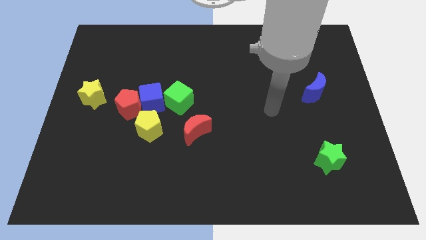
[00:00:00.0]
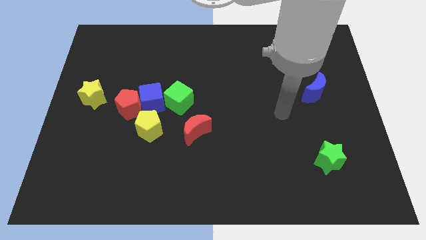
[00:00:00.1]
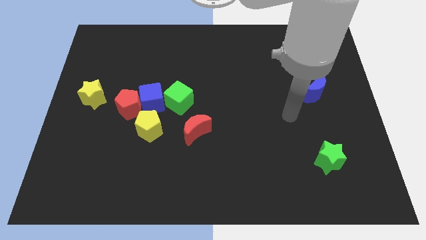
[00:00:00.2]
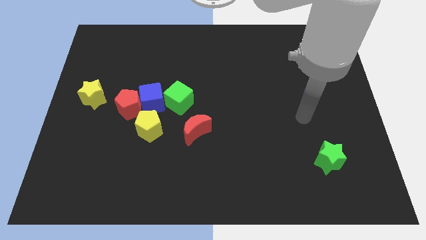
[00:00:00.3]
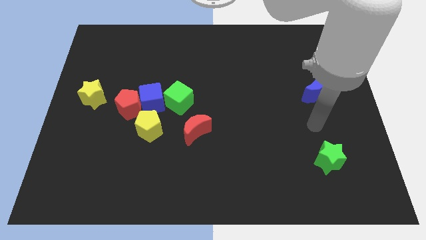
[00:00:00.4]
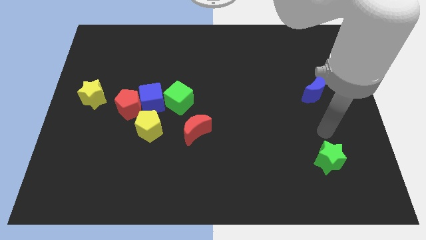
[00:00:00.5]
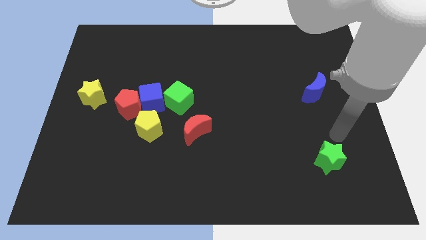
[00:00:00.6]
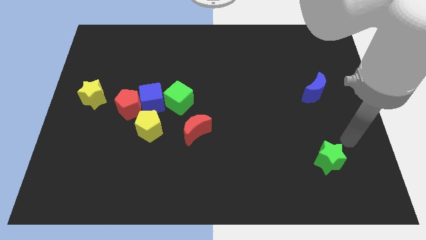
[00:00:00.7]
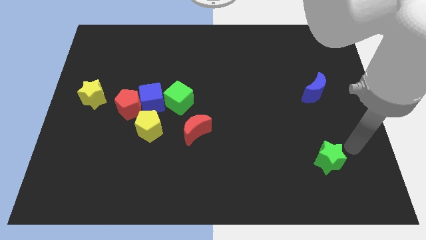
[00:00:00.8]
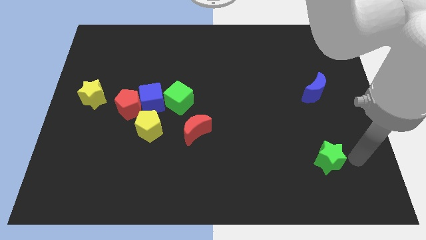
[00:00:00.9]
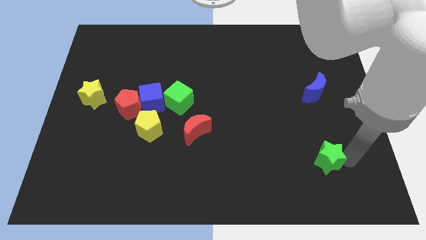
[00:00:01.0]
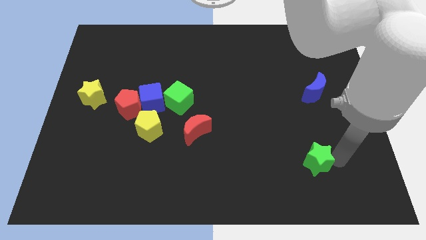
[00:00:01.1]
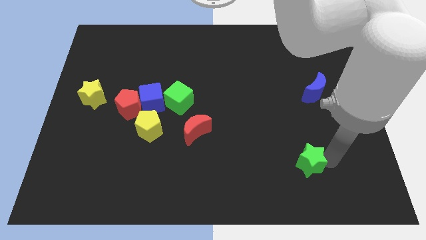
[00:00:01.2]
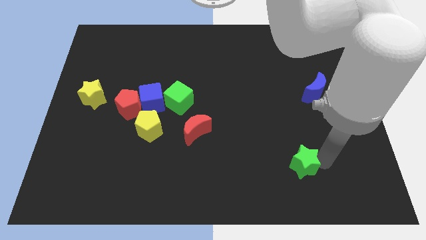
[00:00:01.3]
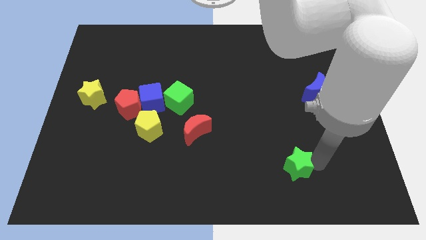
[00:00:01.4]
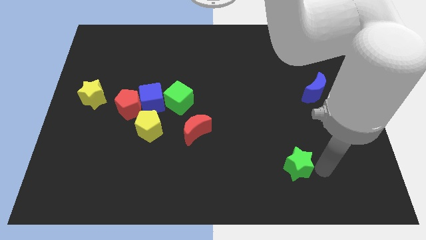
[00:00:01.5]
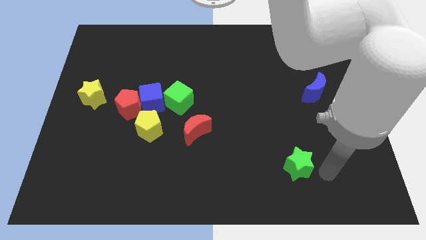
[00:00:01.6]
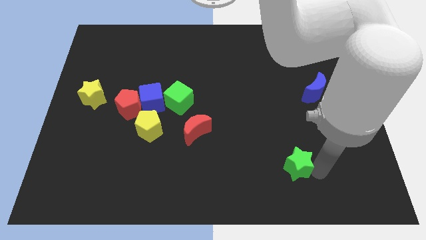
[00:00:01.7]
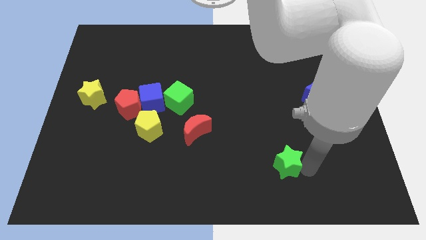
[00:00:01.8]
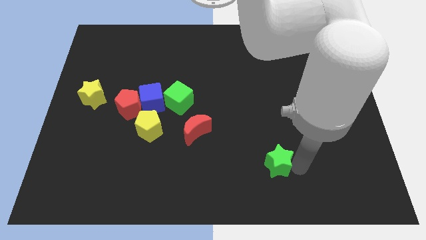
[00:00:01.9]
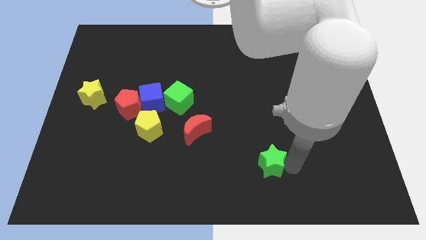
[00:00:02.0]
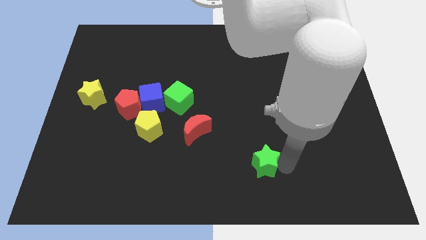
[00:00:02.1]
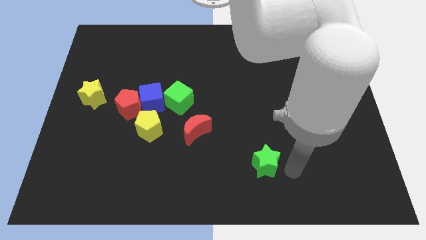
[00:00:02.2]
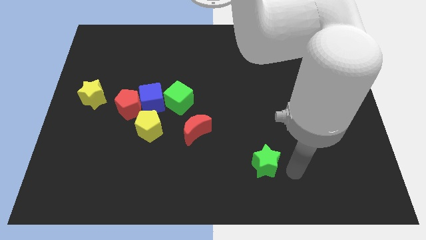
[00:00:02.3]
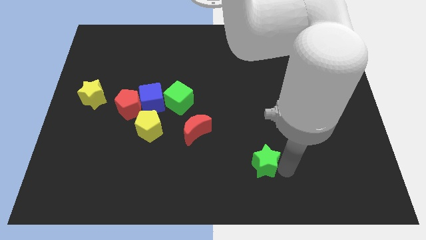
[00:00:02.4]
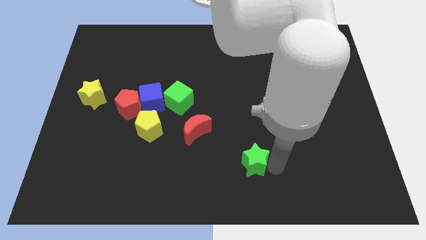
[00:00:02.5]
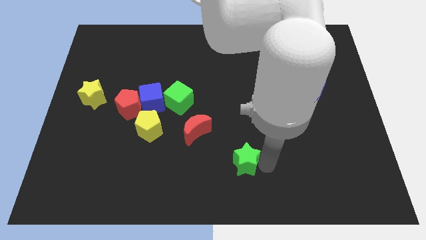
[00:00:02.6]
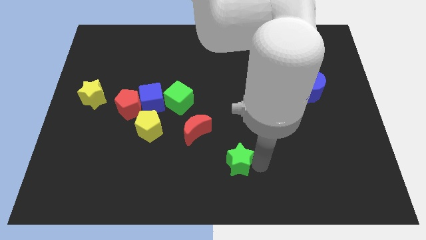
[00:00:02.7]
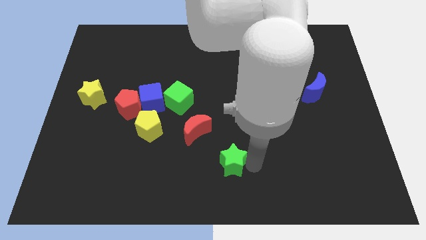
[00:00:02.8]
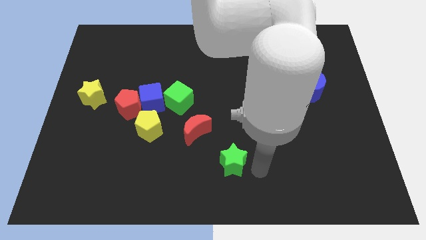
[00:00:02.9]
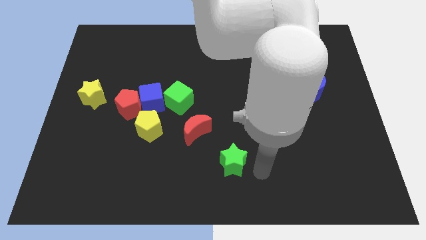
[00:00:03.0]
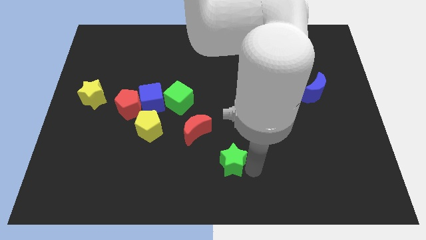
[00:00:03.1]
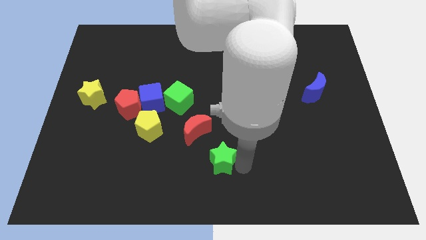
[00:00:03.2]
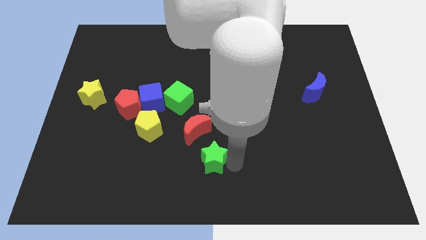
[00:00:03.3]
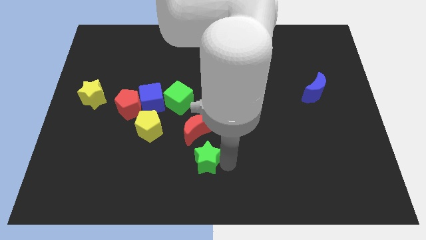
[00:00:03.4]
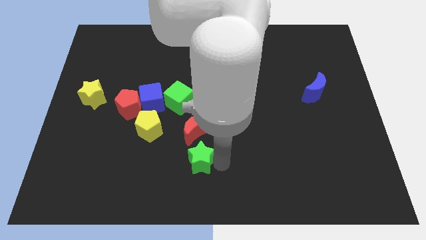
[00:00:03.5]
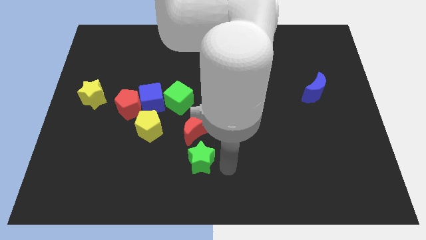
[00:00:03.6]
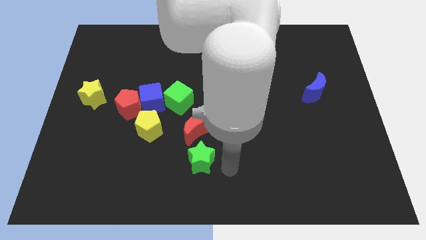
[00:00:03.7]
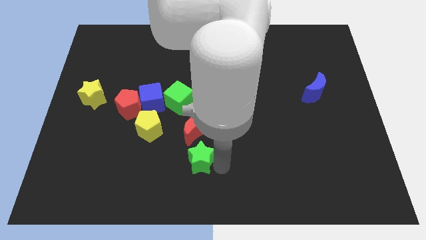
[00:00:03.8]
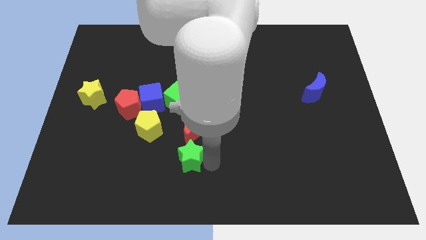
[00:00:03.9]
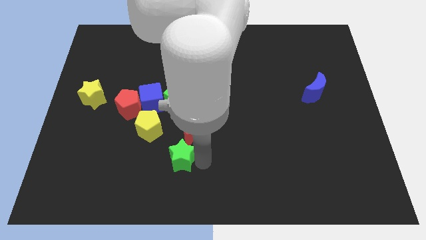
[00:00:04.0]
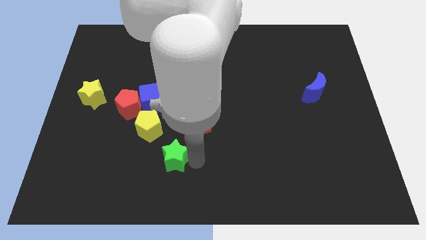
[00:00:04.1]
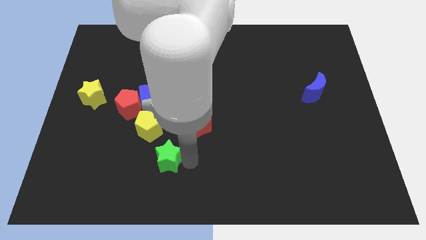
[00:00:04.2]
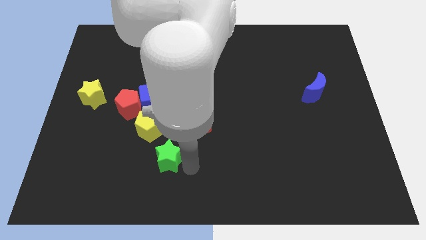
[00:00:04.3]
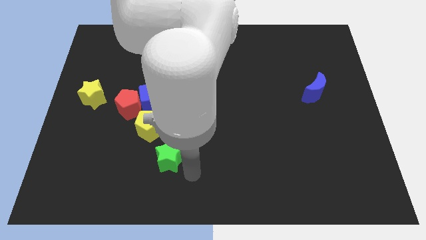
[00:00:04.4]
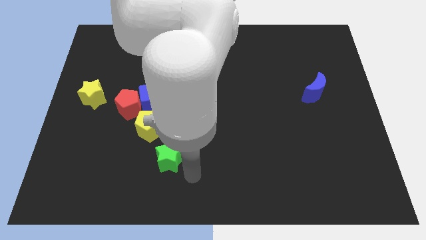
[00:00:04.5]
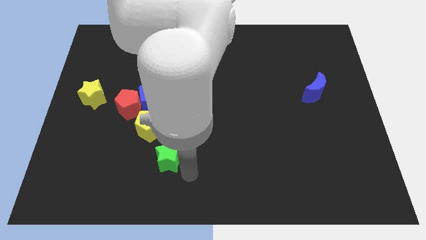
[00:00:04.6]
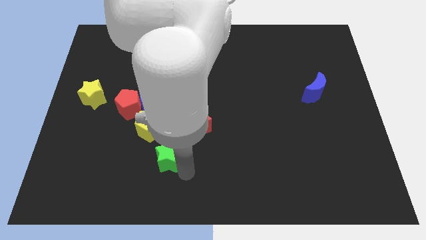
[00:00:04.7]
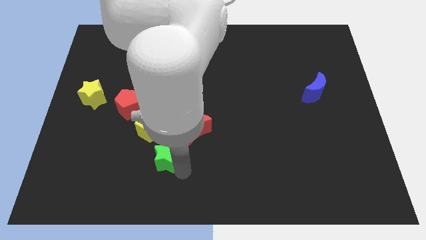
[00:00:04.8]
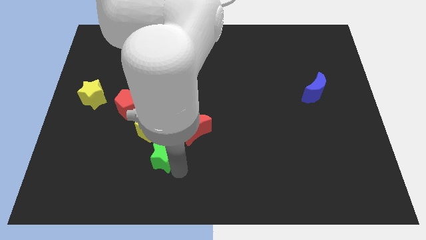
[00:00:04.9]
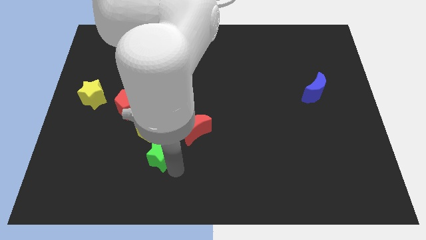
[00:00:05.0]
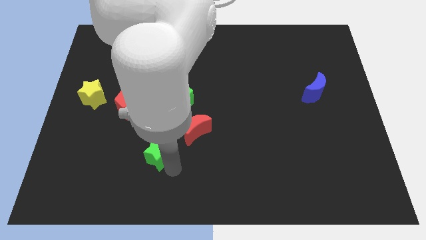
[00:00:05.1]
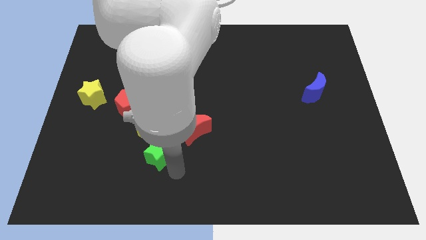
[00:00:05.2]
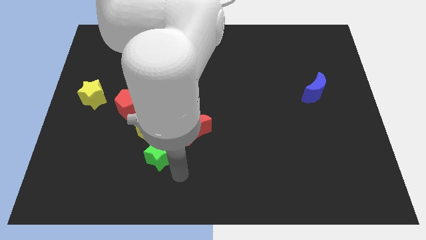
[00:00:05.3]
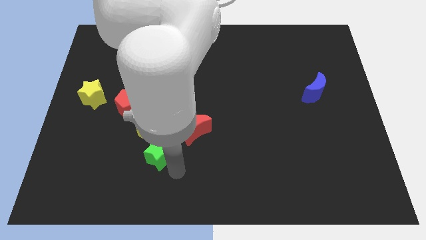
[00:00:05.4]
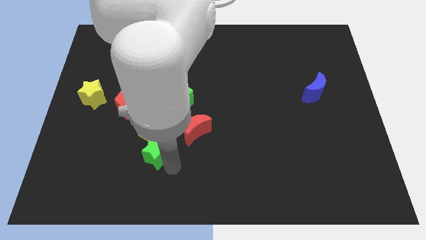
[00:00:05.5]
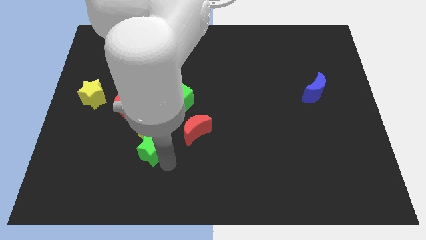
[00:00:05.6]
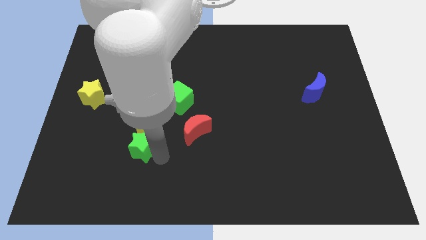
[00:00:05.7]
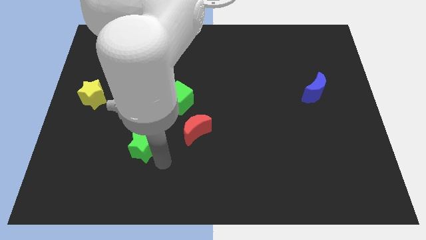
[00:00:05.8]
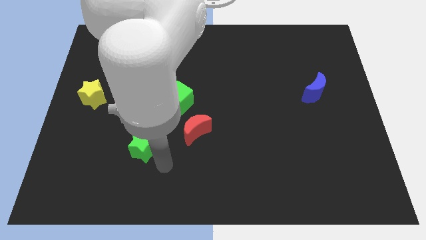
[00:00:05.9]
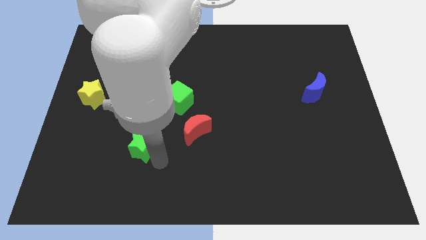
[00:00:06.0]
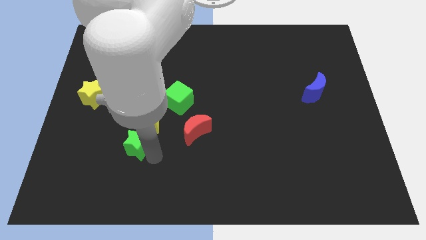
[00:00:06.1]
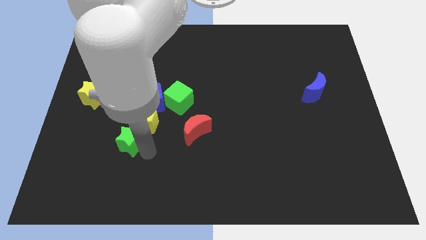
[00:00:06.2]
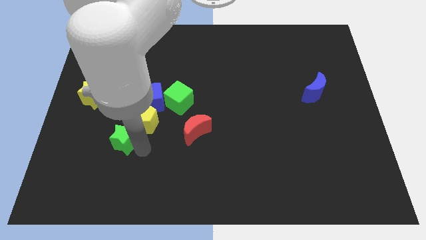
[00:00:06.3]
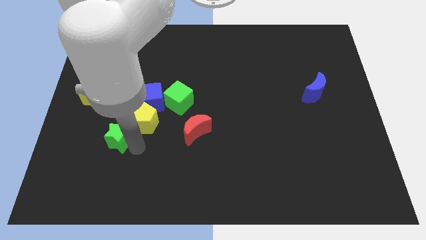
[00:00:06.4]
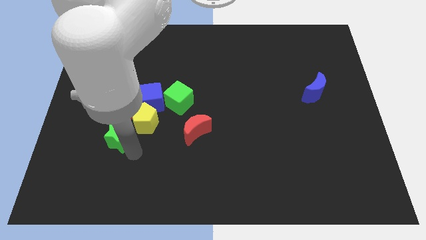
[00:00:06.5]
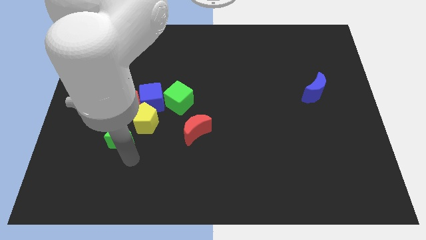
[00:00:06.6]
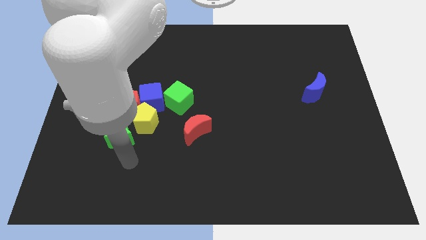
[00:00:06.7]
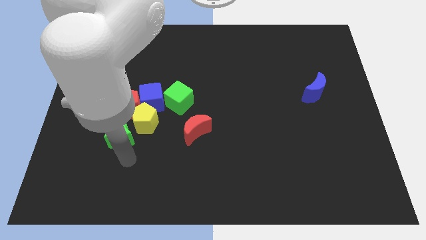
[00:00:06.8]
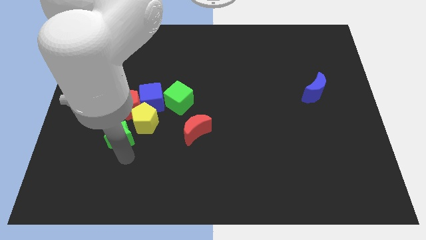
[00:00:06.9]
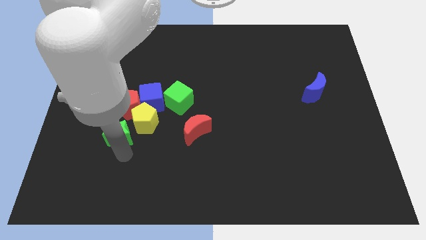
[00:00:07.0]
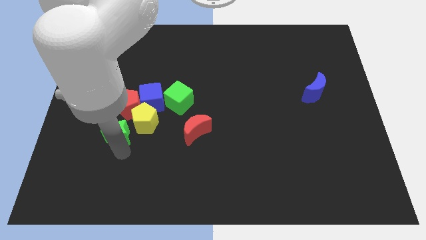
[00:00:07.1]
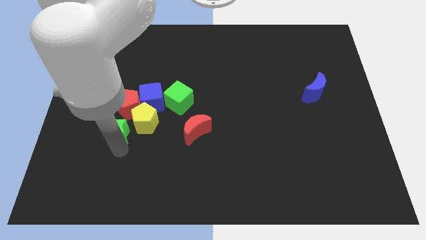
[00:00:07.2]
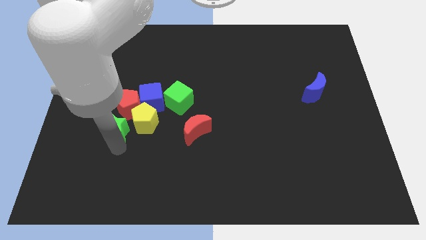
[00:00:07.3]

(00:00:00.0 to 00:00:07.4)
put the green star to the bottom right side of the yellow star

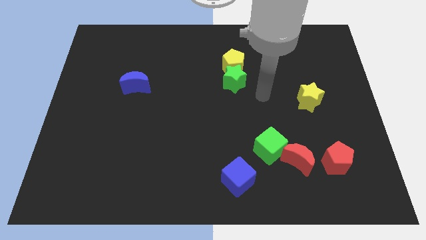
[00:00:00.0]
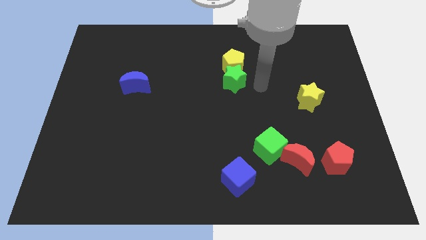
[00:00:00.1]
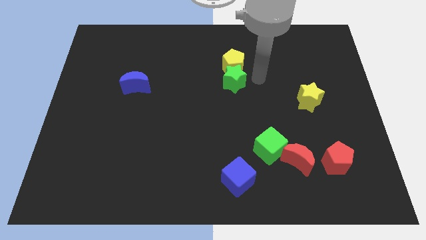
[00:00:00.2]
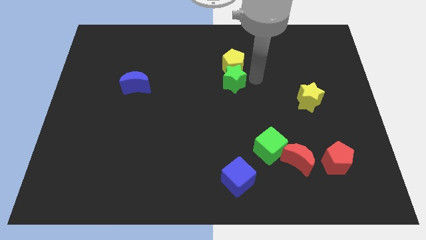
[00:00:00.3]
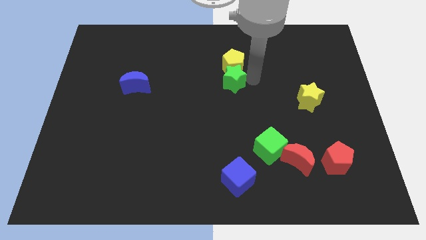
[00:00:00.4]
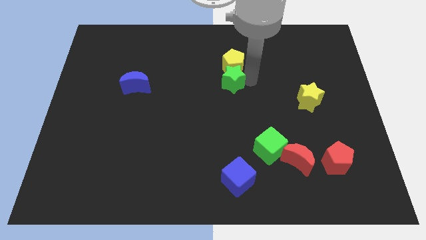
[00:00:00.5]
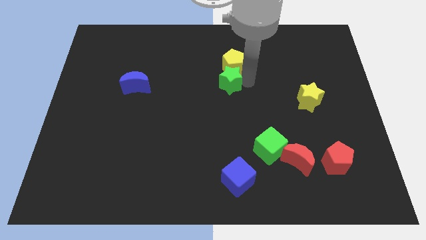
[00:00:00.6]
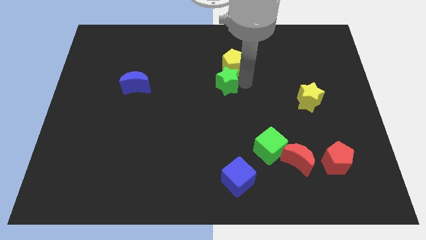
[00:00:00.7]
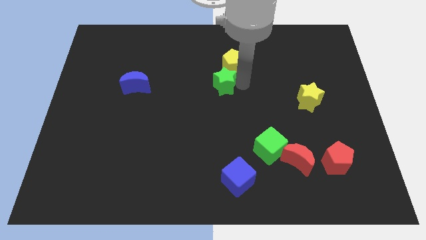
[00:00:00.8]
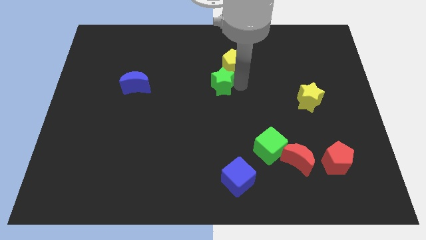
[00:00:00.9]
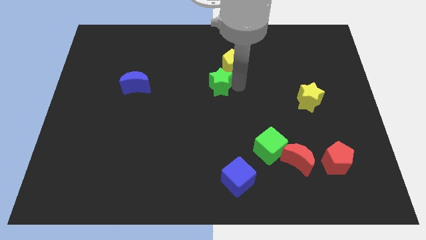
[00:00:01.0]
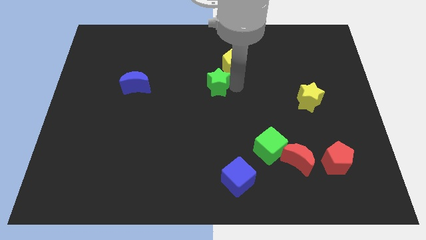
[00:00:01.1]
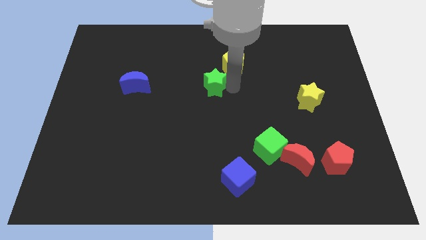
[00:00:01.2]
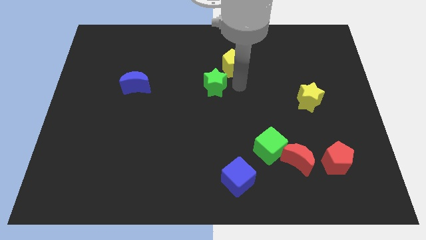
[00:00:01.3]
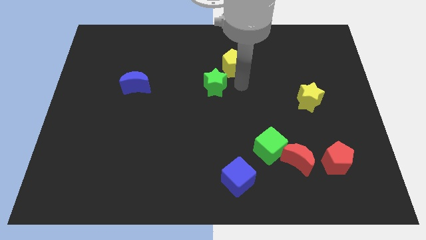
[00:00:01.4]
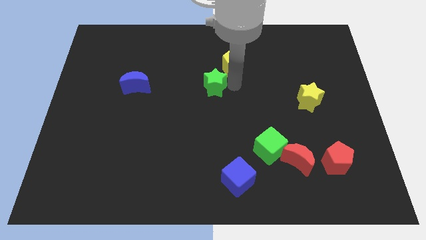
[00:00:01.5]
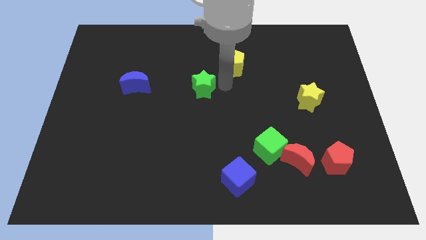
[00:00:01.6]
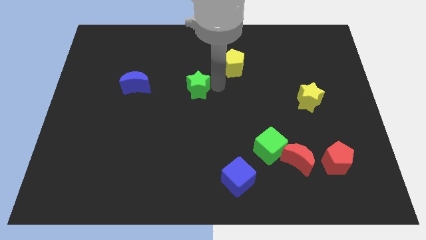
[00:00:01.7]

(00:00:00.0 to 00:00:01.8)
put the green star just right of the blue moon
